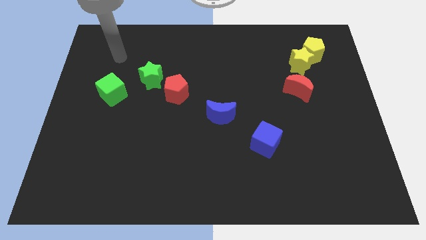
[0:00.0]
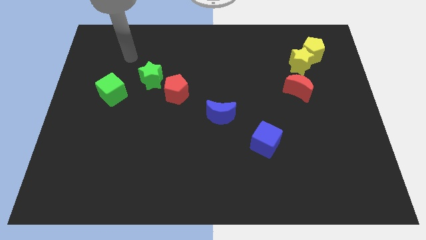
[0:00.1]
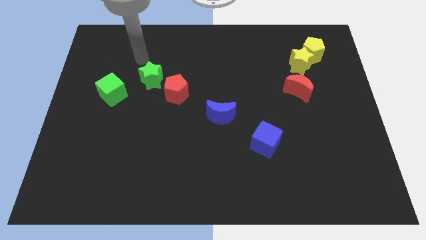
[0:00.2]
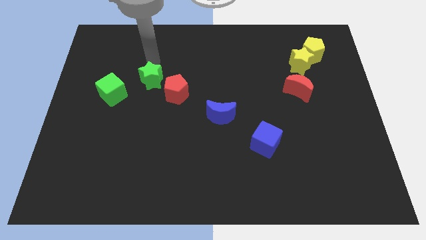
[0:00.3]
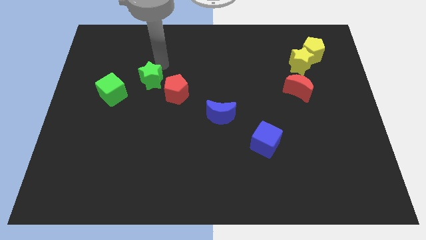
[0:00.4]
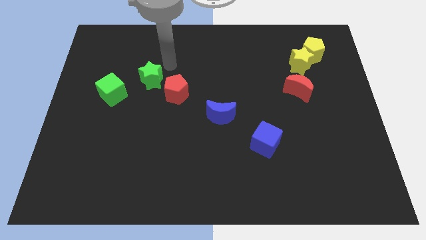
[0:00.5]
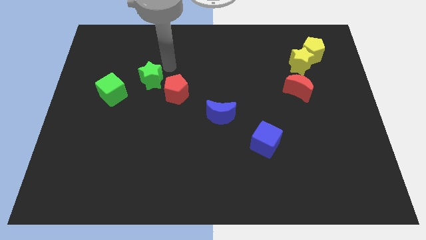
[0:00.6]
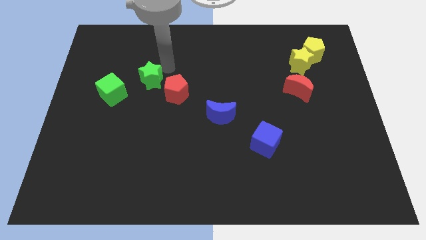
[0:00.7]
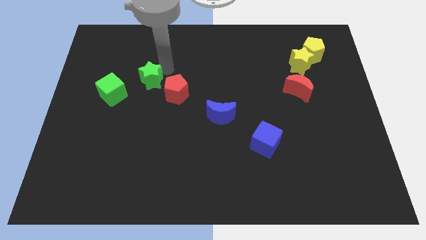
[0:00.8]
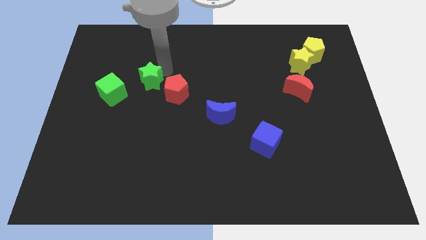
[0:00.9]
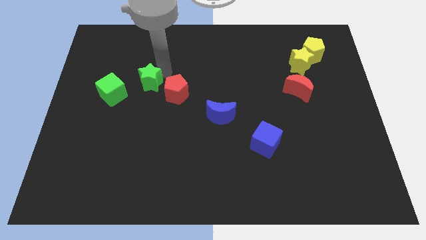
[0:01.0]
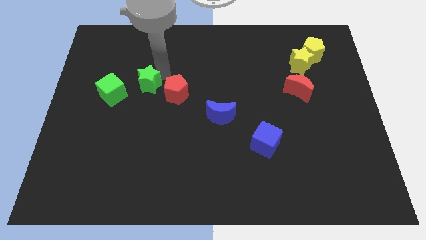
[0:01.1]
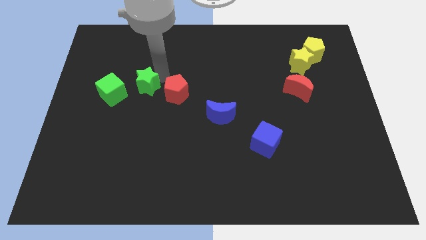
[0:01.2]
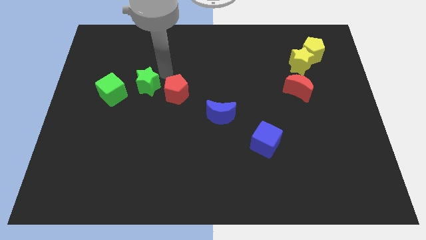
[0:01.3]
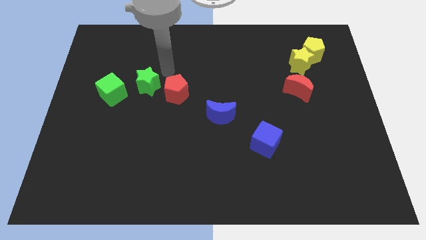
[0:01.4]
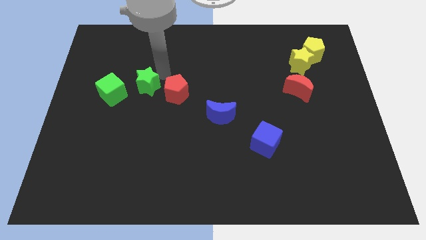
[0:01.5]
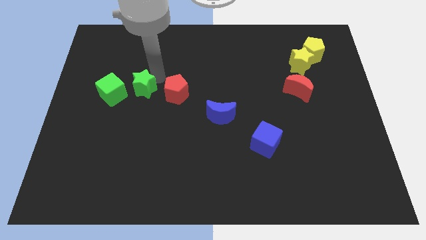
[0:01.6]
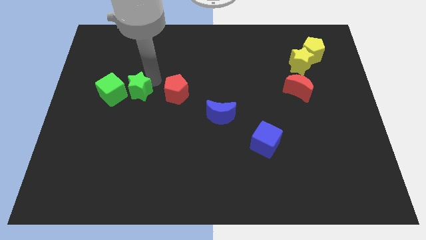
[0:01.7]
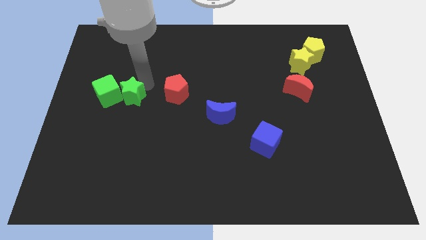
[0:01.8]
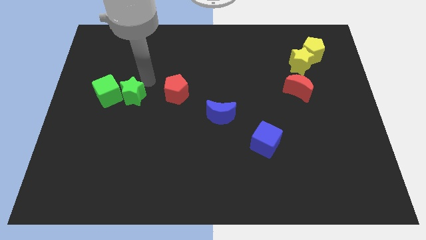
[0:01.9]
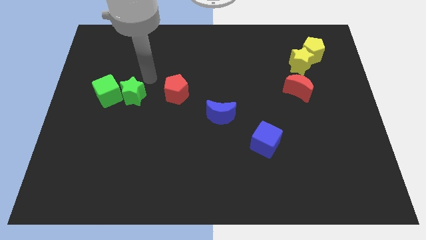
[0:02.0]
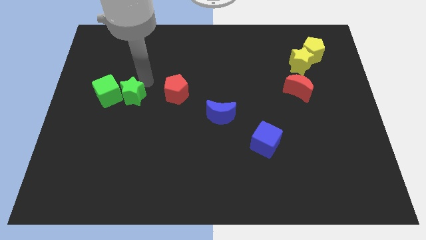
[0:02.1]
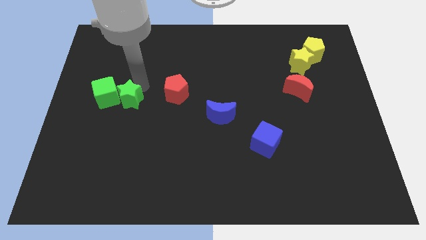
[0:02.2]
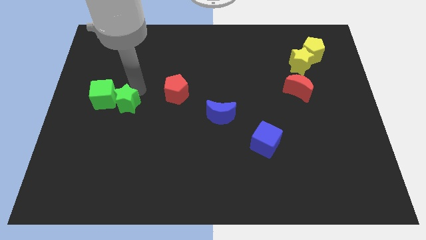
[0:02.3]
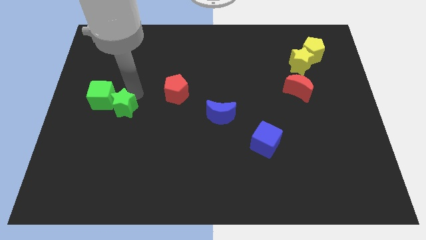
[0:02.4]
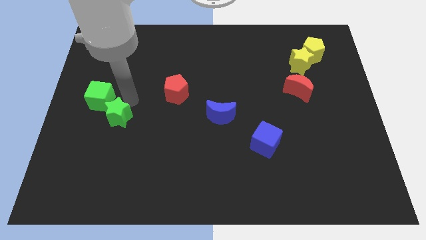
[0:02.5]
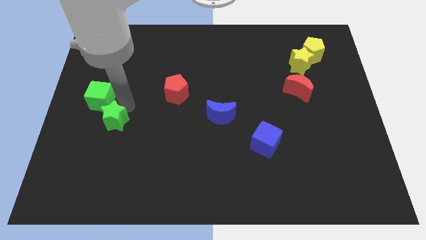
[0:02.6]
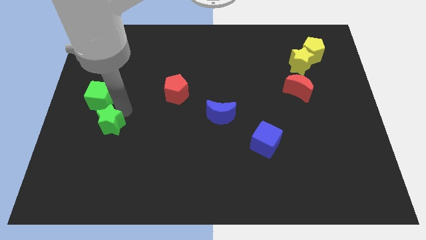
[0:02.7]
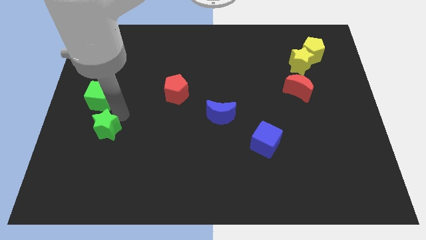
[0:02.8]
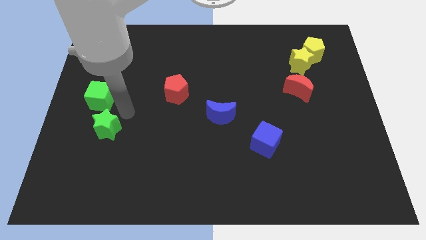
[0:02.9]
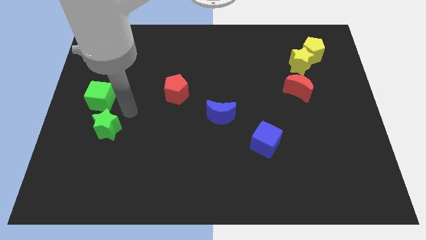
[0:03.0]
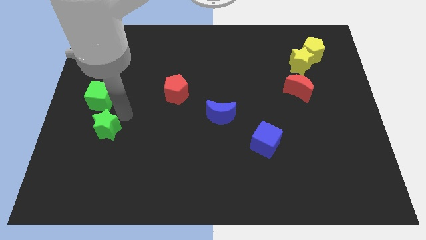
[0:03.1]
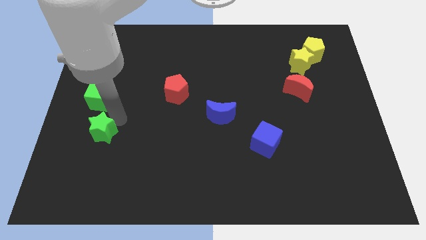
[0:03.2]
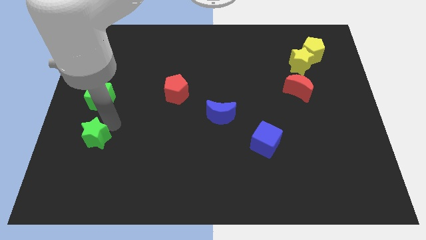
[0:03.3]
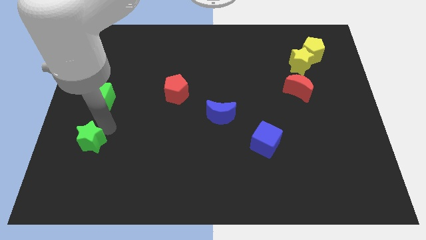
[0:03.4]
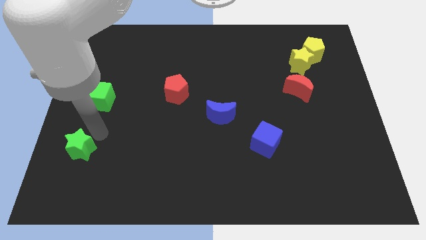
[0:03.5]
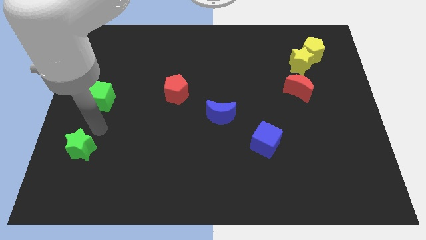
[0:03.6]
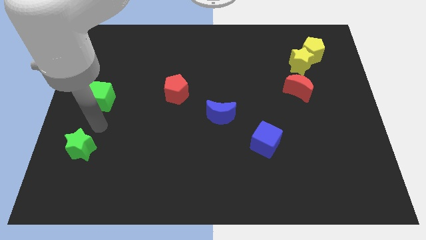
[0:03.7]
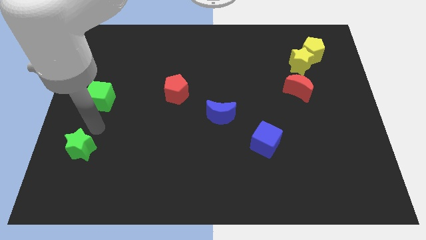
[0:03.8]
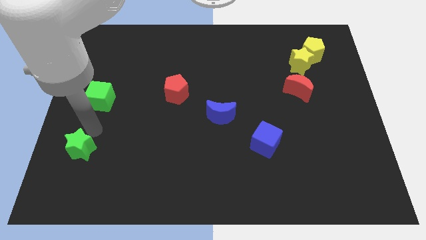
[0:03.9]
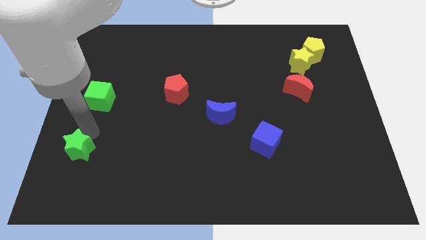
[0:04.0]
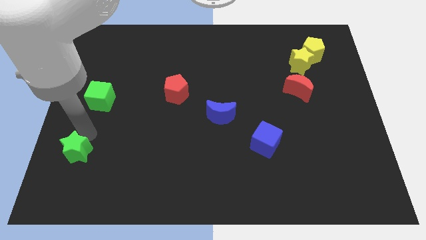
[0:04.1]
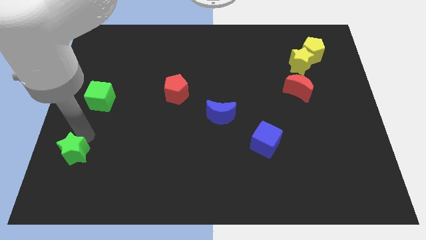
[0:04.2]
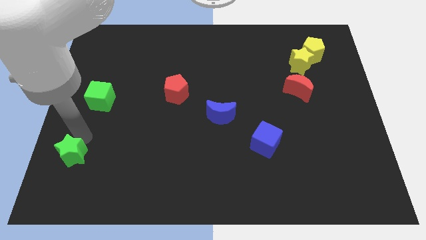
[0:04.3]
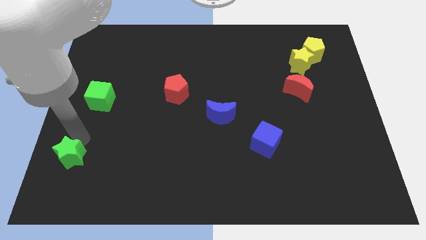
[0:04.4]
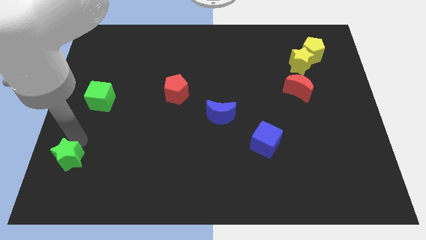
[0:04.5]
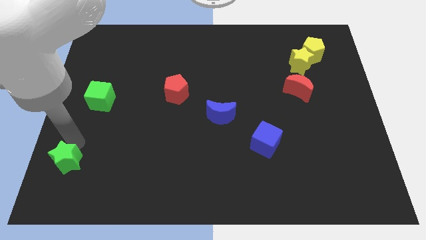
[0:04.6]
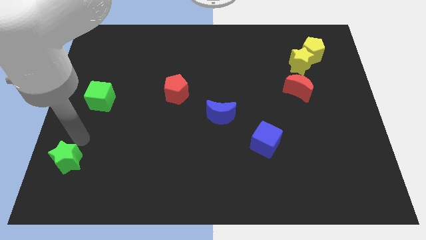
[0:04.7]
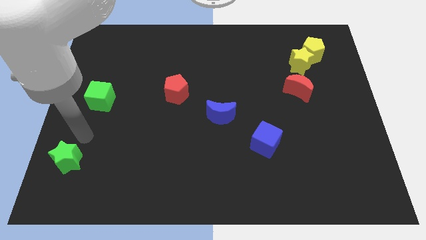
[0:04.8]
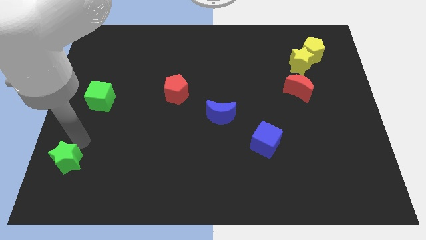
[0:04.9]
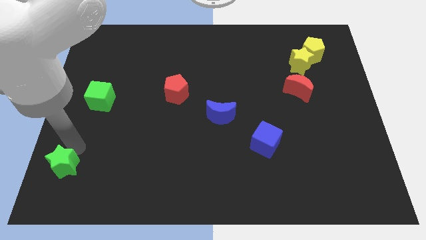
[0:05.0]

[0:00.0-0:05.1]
slide the green star to the bottom left corner

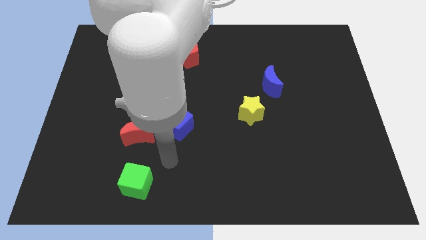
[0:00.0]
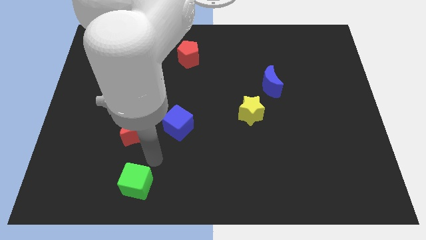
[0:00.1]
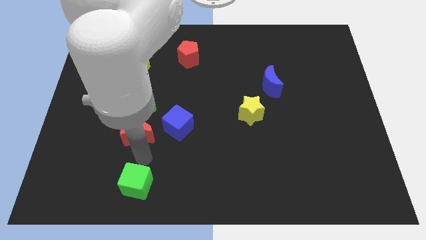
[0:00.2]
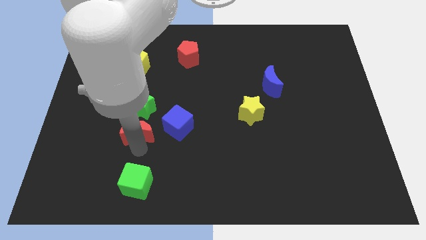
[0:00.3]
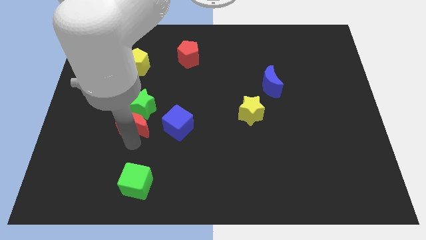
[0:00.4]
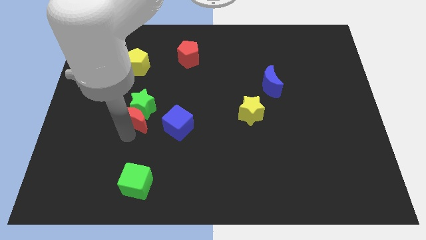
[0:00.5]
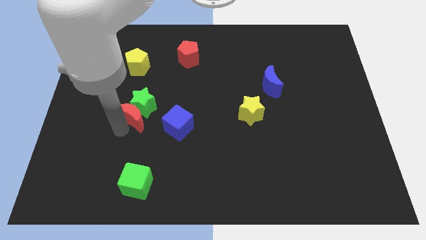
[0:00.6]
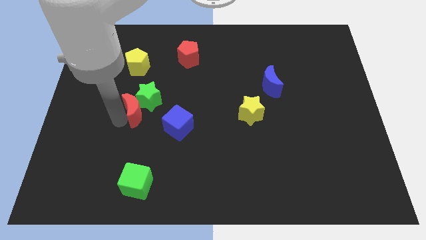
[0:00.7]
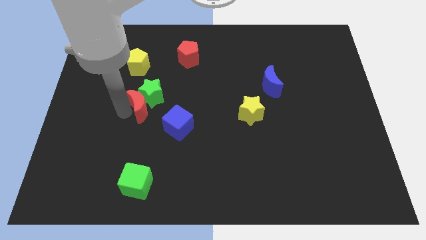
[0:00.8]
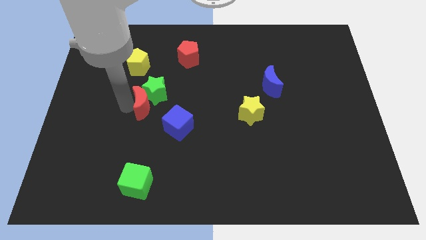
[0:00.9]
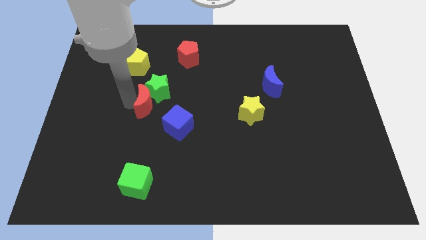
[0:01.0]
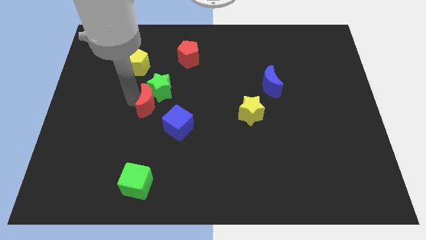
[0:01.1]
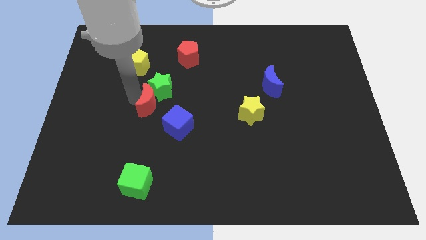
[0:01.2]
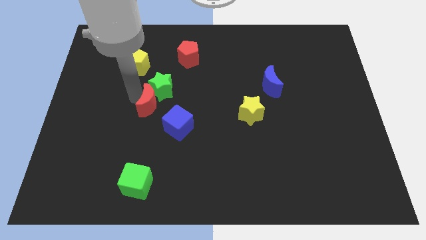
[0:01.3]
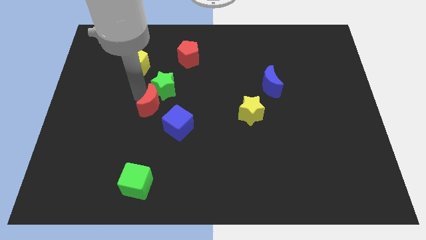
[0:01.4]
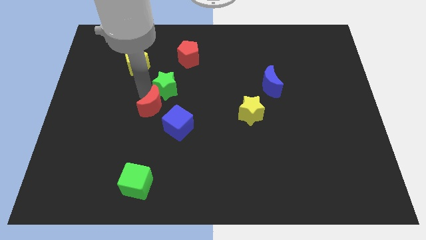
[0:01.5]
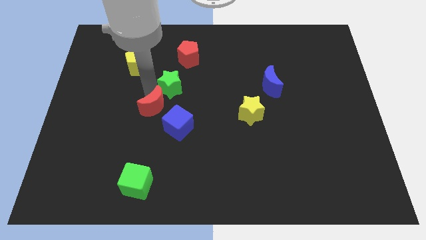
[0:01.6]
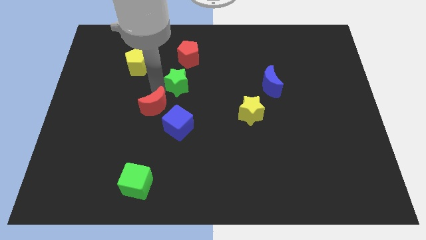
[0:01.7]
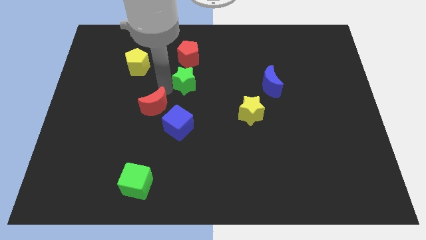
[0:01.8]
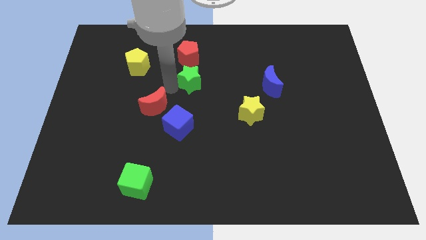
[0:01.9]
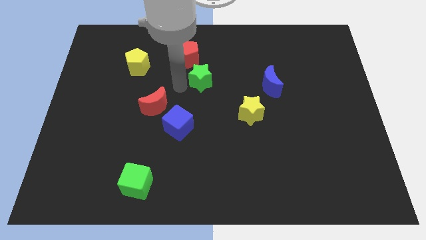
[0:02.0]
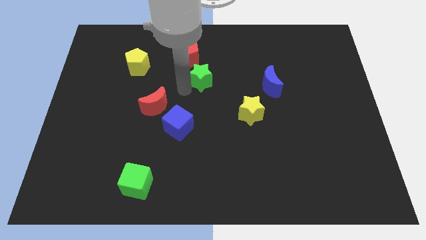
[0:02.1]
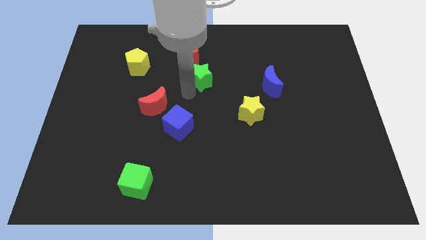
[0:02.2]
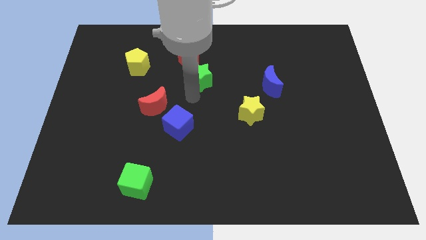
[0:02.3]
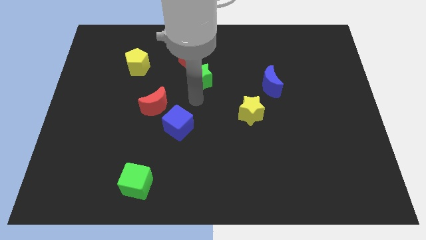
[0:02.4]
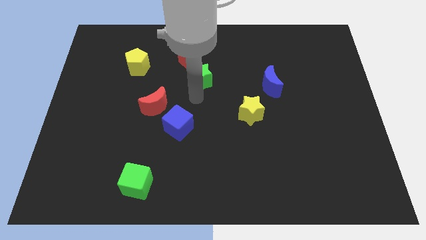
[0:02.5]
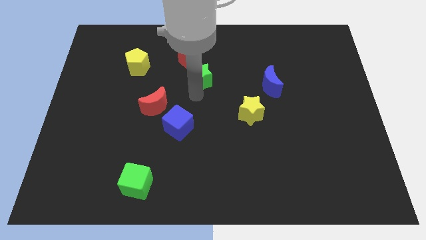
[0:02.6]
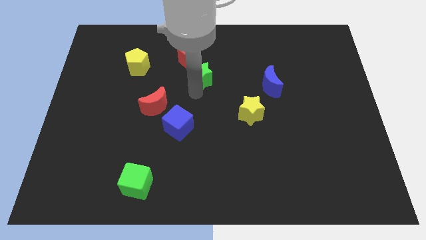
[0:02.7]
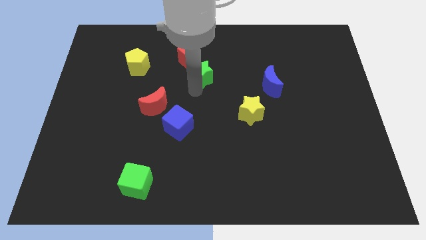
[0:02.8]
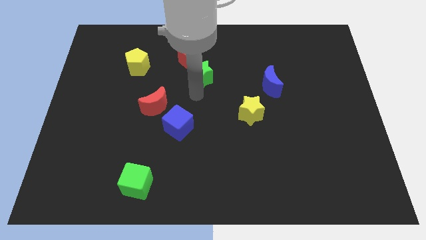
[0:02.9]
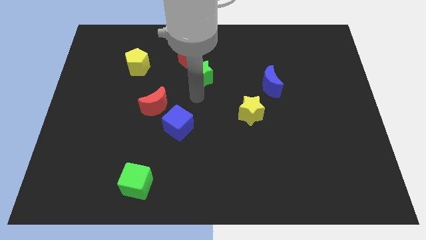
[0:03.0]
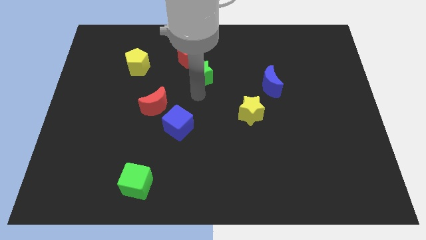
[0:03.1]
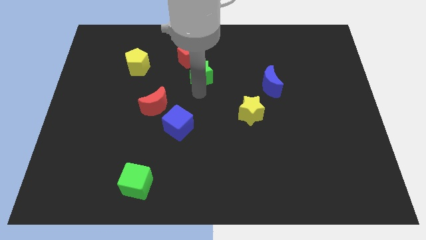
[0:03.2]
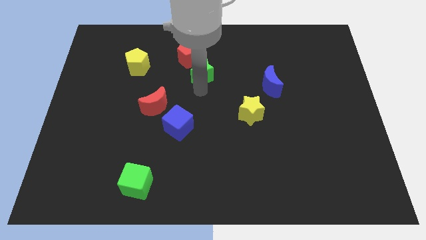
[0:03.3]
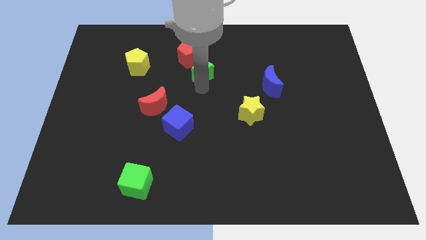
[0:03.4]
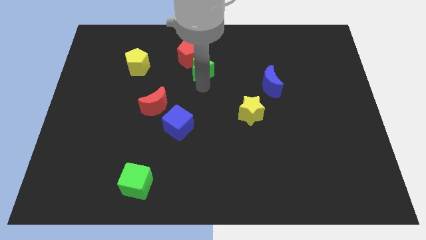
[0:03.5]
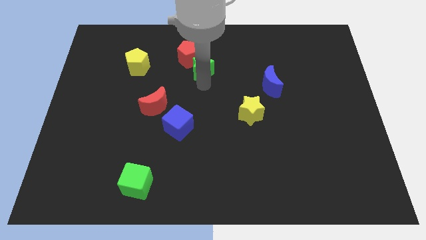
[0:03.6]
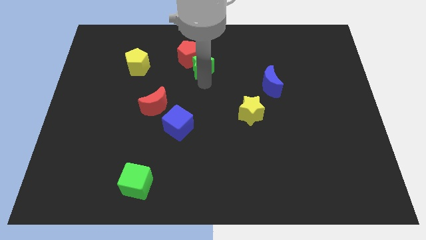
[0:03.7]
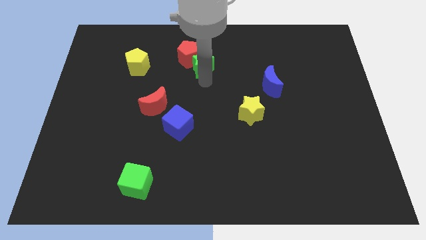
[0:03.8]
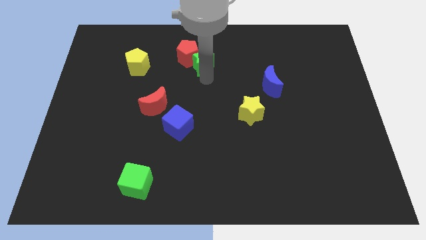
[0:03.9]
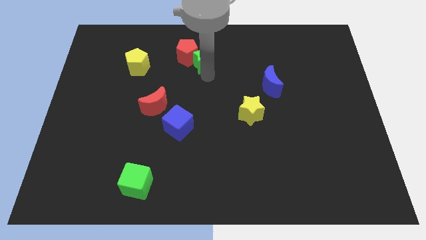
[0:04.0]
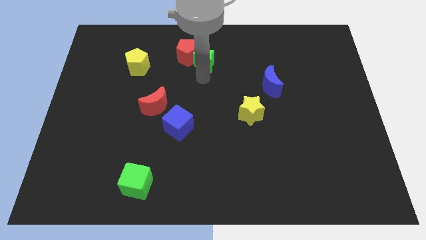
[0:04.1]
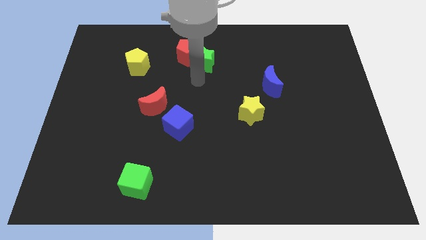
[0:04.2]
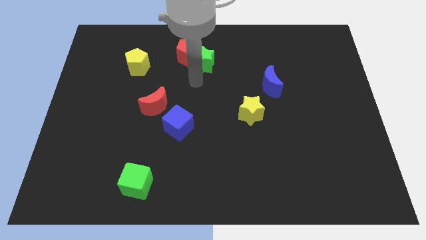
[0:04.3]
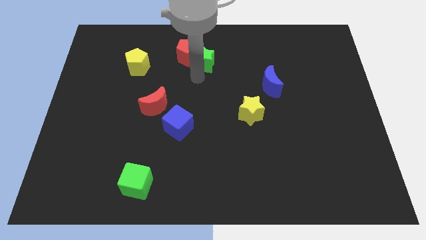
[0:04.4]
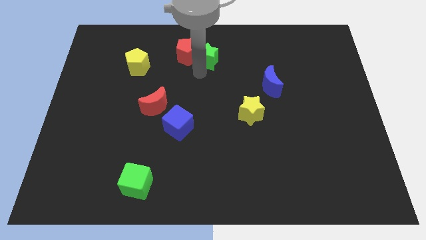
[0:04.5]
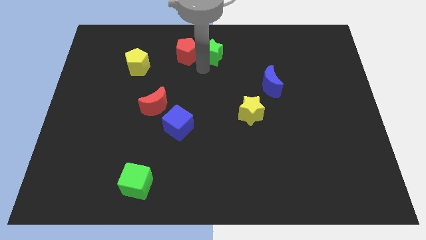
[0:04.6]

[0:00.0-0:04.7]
put the green star to the top side
